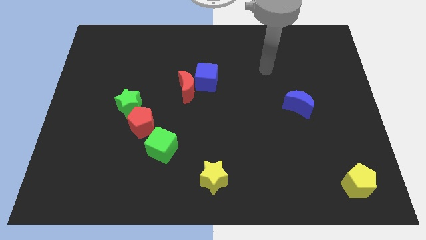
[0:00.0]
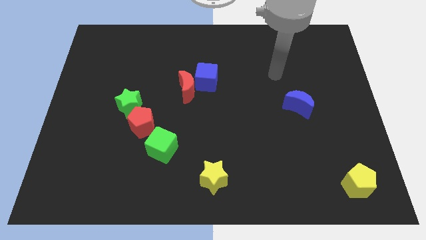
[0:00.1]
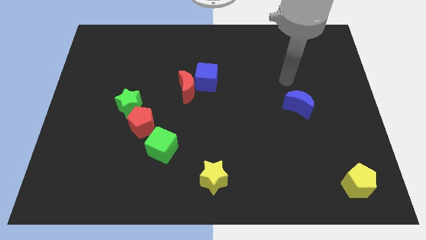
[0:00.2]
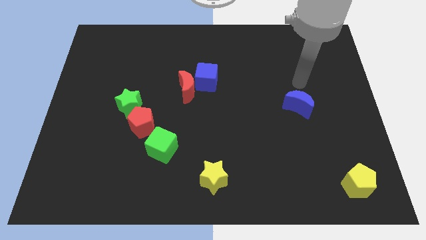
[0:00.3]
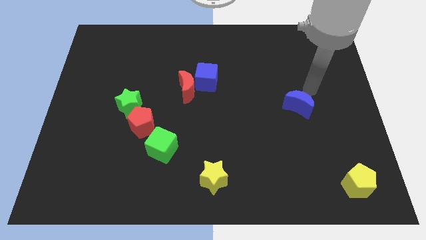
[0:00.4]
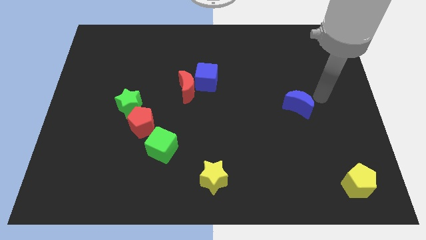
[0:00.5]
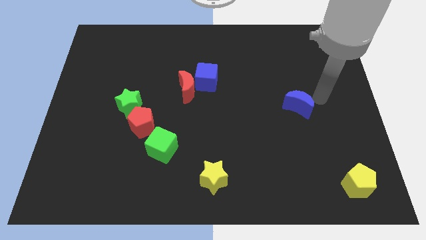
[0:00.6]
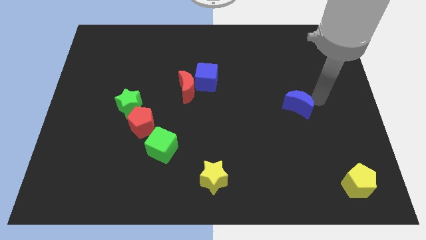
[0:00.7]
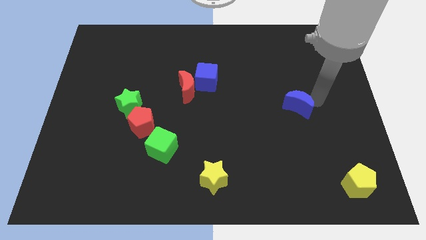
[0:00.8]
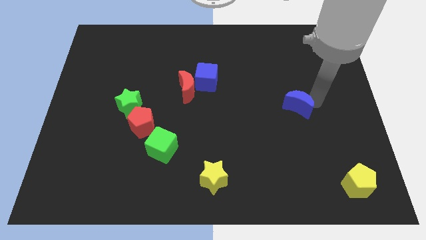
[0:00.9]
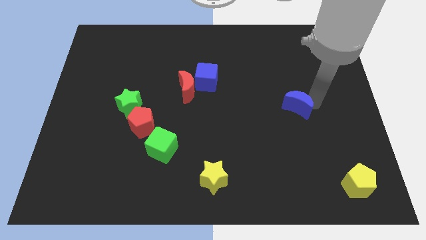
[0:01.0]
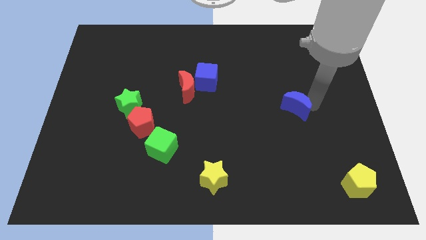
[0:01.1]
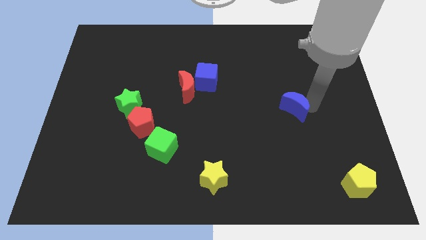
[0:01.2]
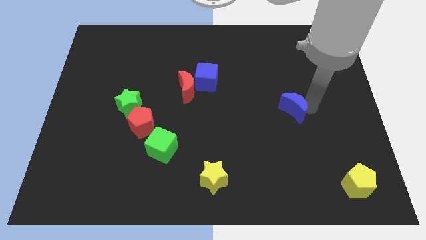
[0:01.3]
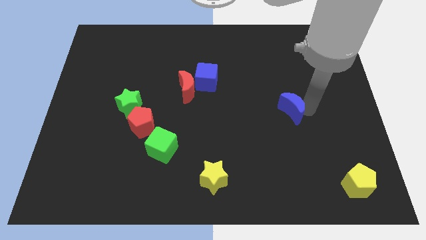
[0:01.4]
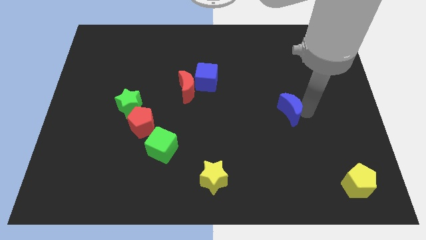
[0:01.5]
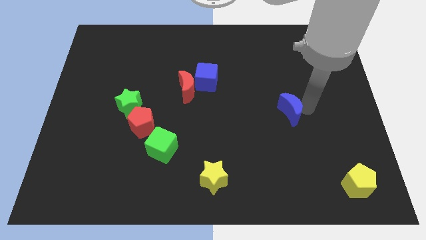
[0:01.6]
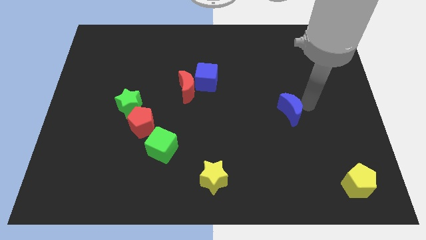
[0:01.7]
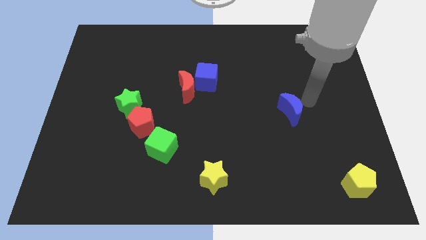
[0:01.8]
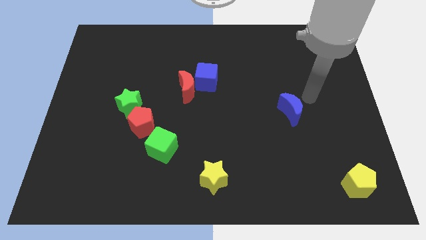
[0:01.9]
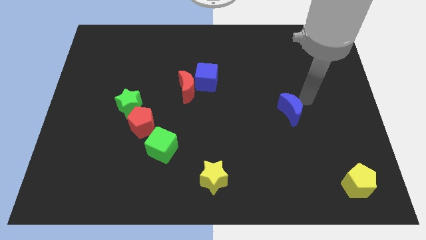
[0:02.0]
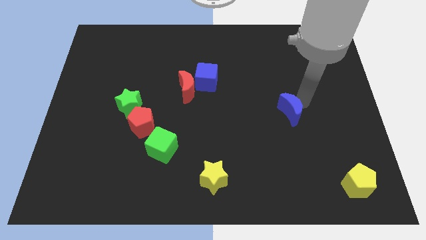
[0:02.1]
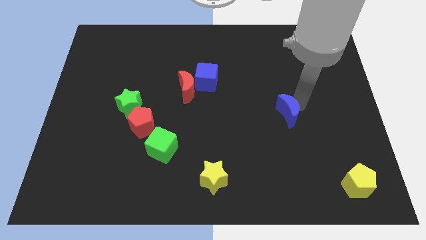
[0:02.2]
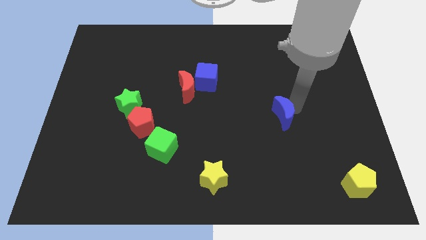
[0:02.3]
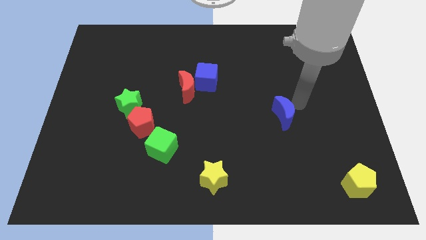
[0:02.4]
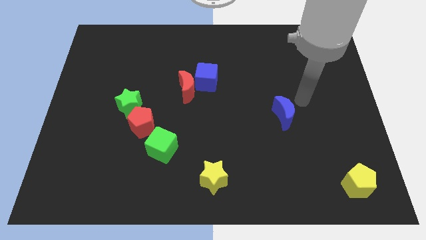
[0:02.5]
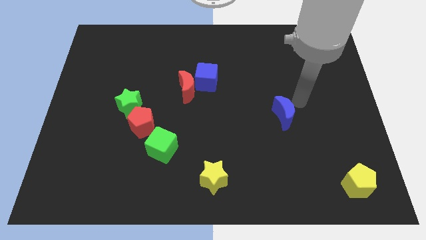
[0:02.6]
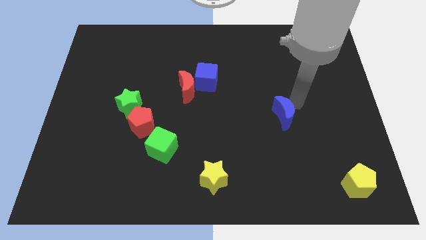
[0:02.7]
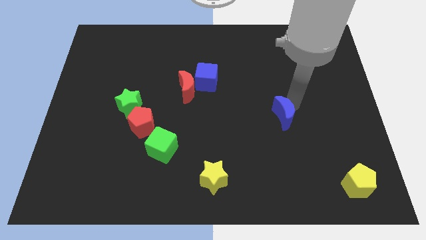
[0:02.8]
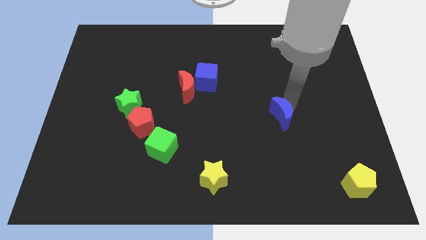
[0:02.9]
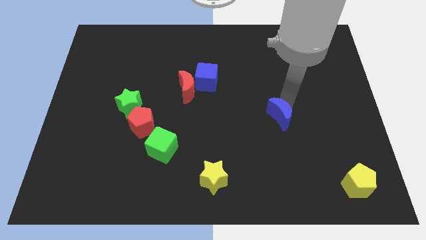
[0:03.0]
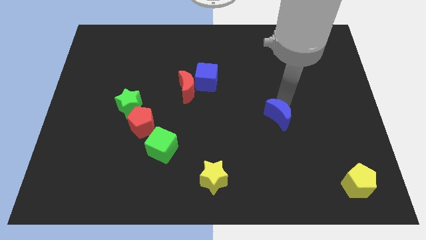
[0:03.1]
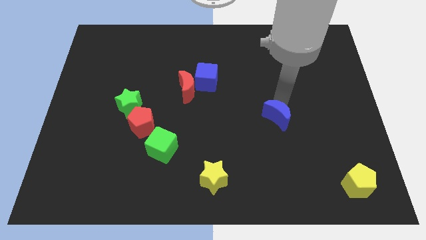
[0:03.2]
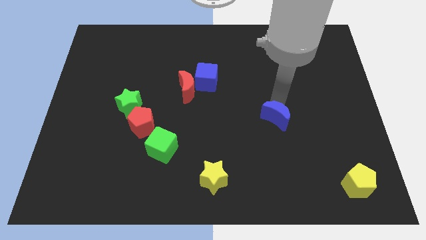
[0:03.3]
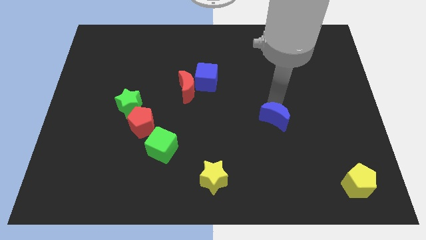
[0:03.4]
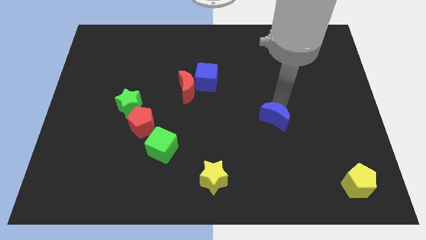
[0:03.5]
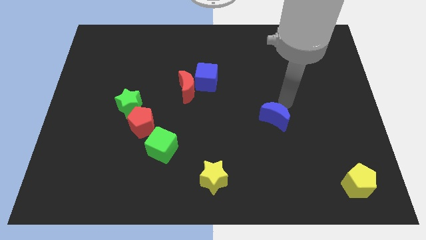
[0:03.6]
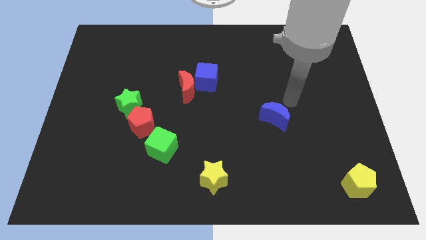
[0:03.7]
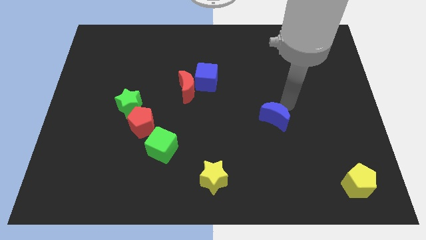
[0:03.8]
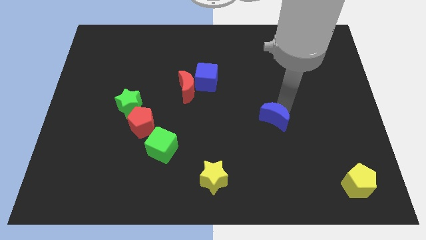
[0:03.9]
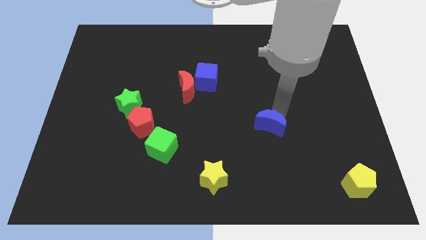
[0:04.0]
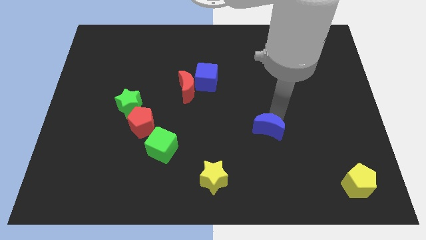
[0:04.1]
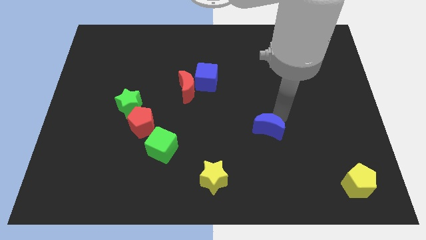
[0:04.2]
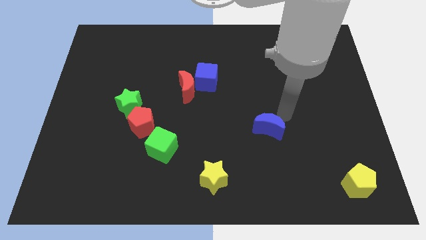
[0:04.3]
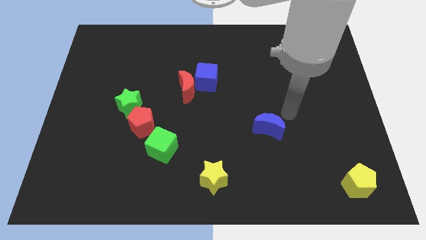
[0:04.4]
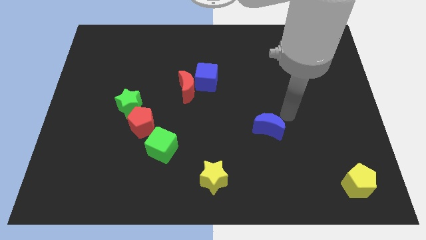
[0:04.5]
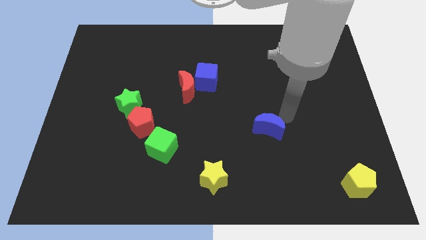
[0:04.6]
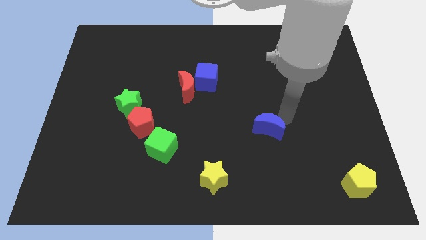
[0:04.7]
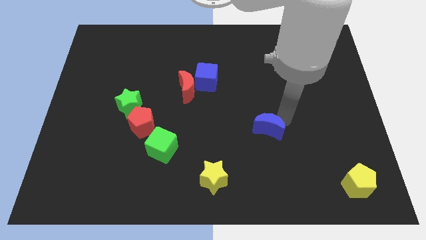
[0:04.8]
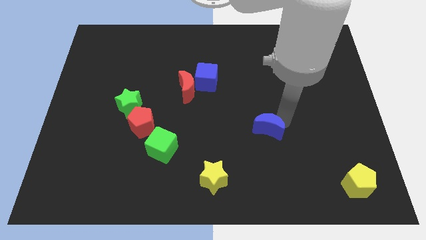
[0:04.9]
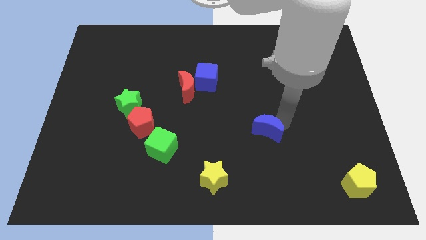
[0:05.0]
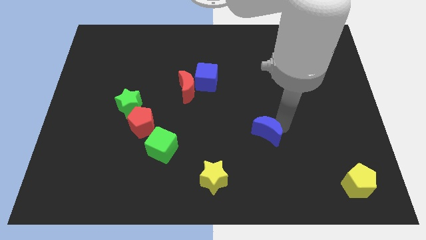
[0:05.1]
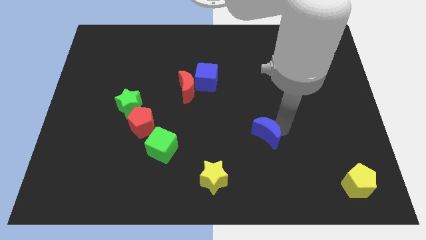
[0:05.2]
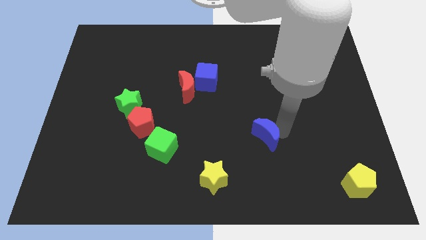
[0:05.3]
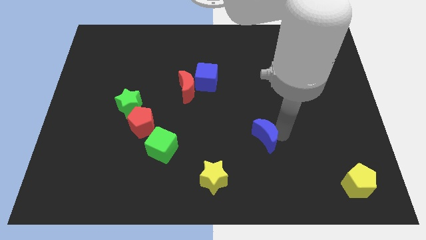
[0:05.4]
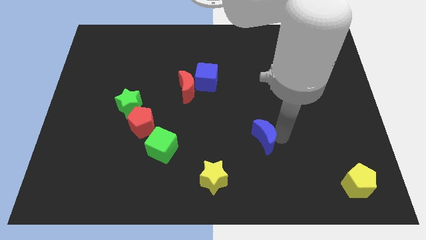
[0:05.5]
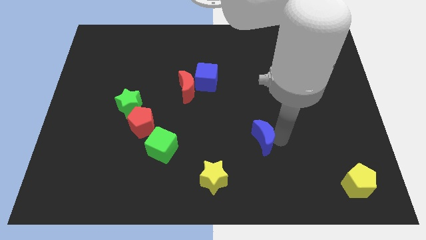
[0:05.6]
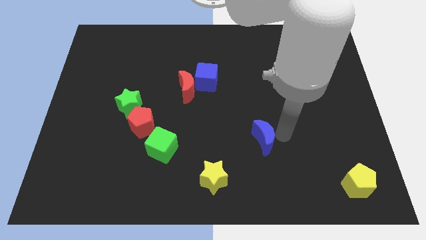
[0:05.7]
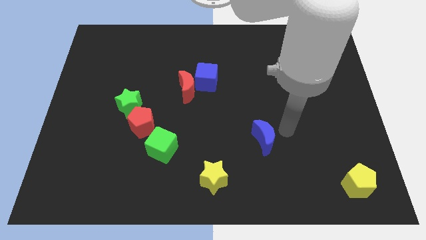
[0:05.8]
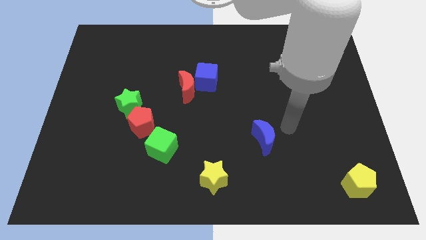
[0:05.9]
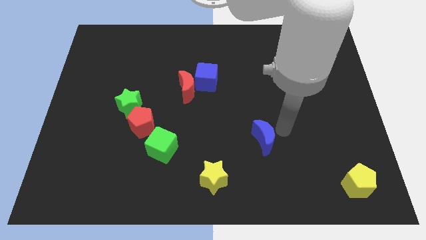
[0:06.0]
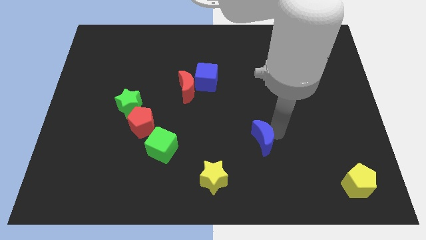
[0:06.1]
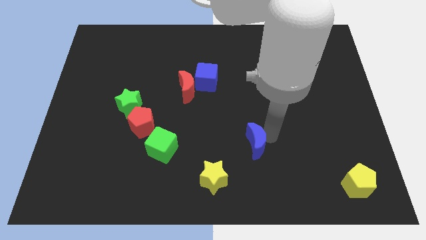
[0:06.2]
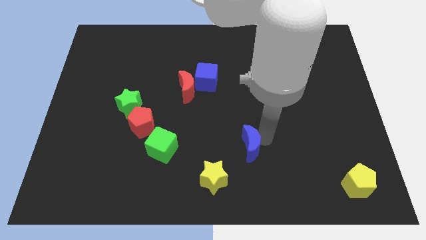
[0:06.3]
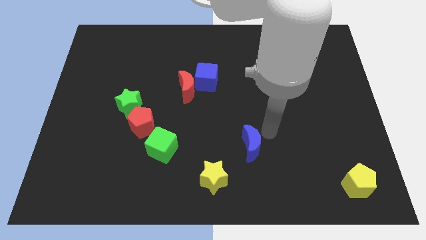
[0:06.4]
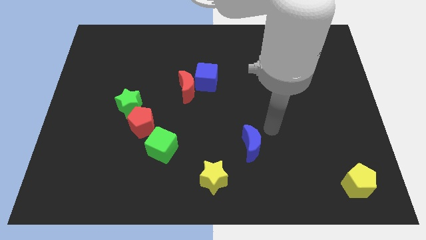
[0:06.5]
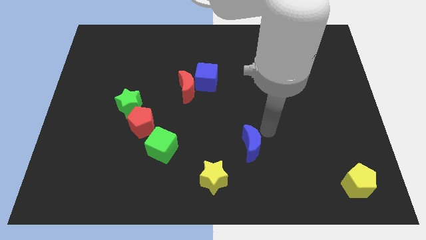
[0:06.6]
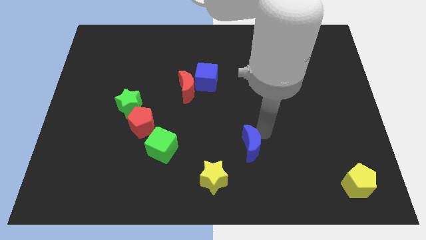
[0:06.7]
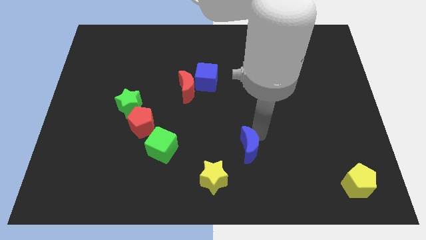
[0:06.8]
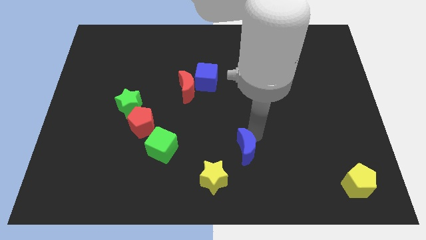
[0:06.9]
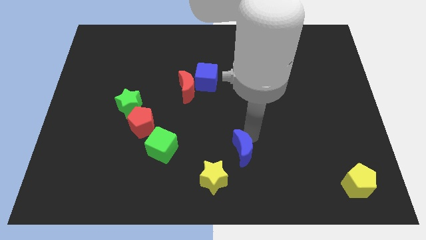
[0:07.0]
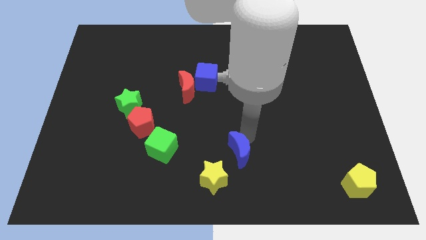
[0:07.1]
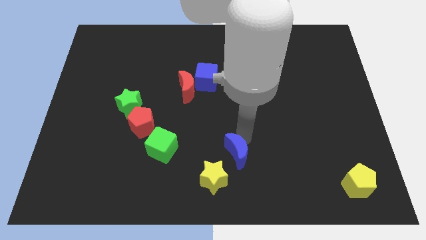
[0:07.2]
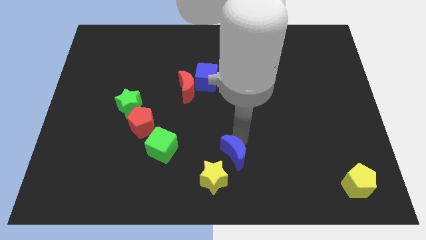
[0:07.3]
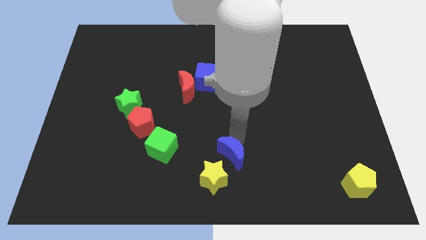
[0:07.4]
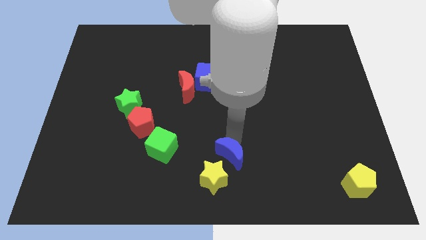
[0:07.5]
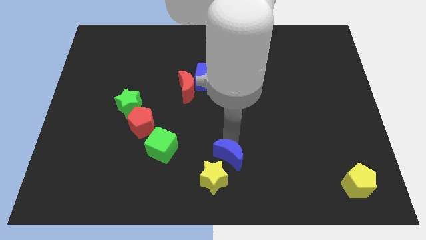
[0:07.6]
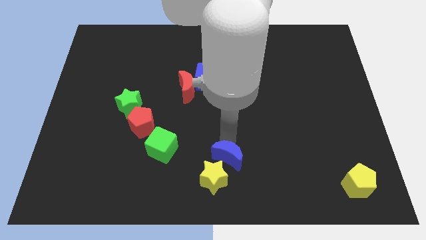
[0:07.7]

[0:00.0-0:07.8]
put the blue moon next to the yellow star
